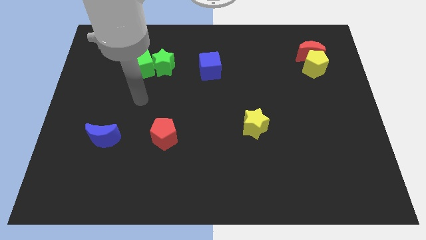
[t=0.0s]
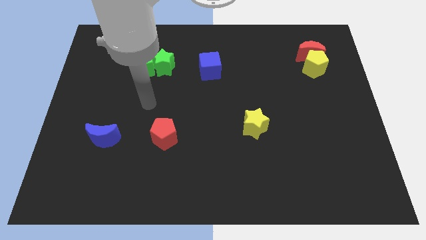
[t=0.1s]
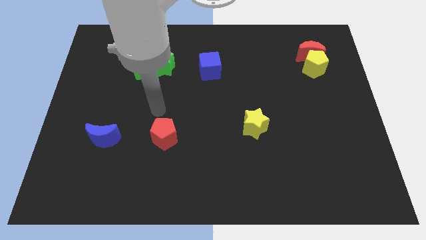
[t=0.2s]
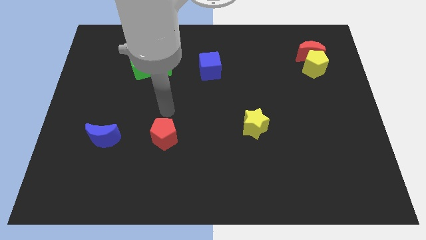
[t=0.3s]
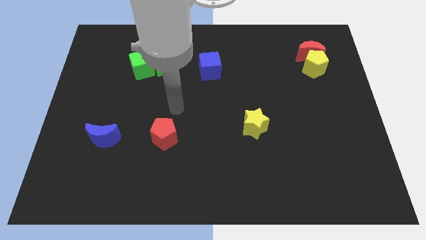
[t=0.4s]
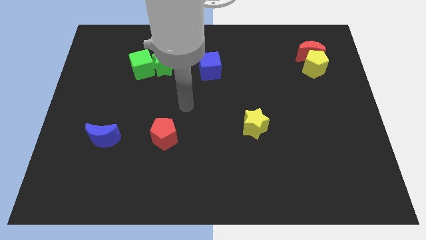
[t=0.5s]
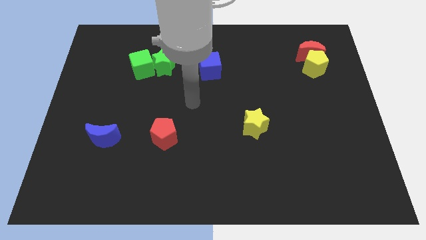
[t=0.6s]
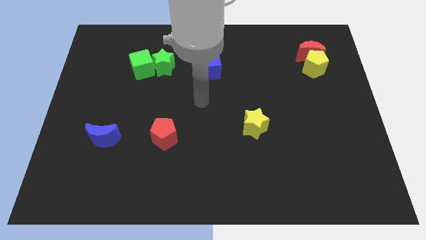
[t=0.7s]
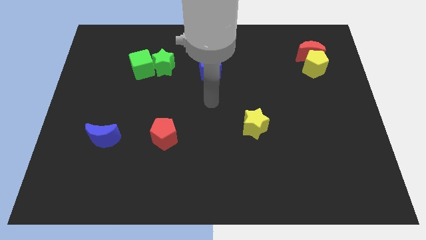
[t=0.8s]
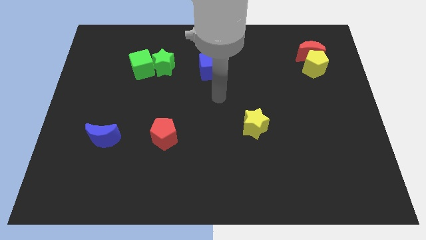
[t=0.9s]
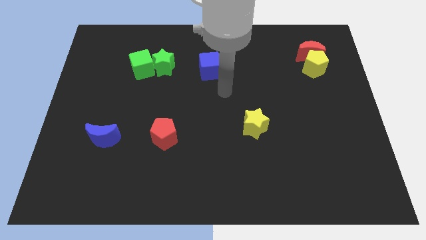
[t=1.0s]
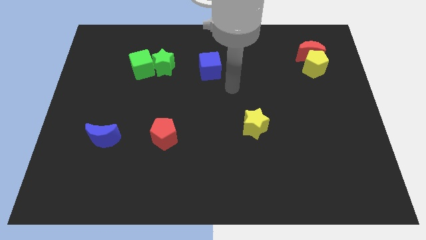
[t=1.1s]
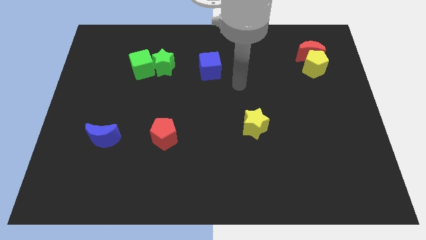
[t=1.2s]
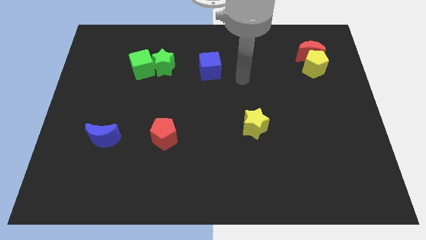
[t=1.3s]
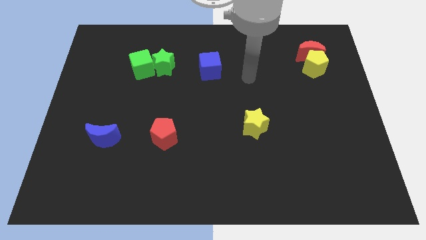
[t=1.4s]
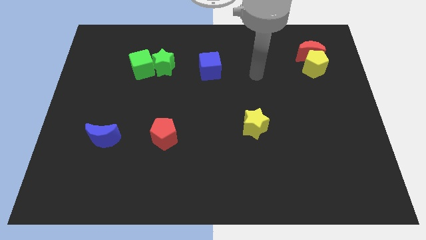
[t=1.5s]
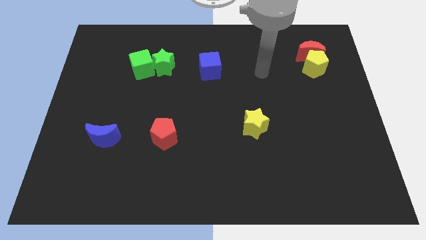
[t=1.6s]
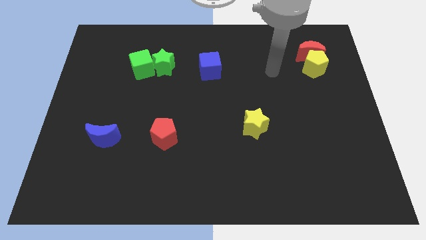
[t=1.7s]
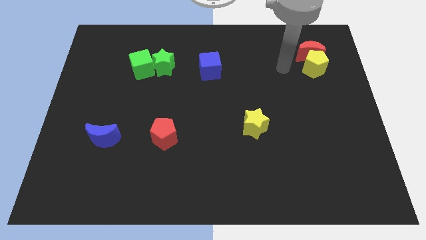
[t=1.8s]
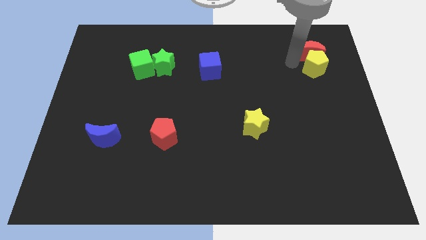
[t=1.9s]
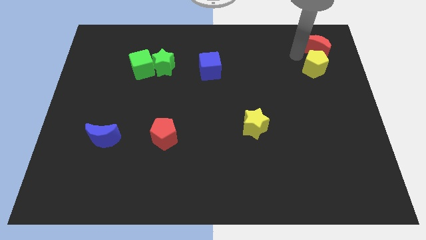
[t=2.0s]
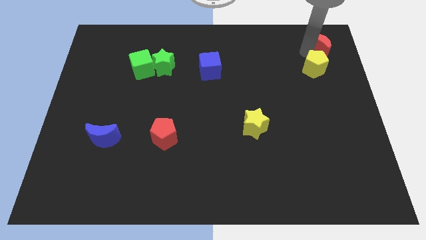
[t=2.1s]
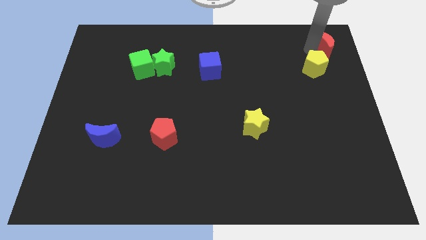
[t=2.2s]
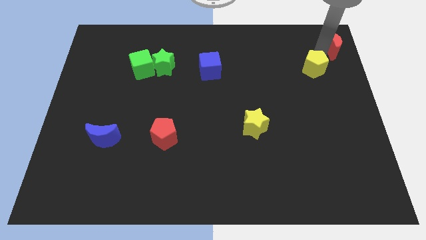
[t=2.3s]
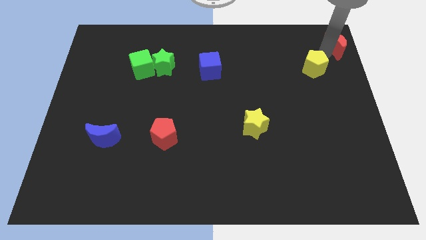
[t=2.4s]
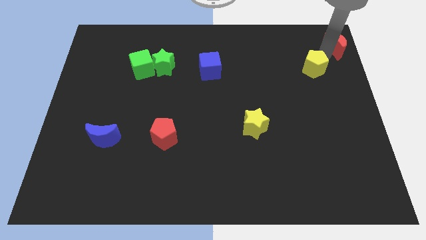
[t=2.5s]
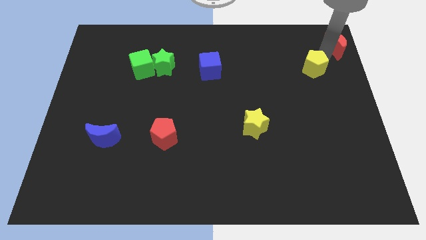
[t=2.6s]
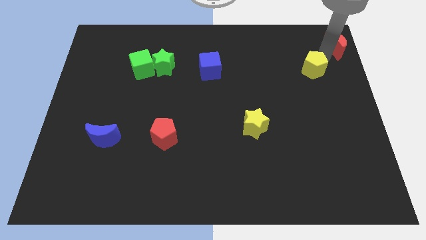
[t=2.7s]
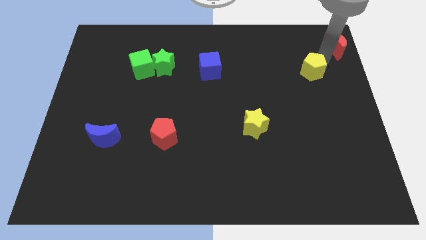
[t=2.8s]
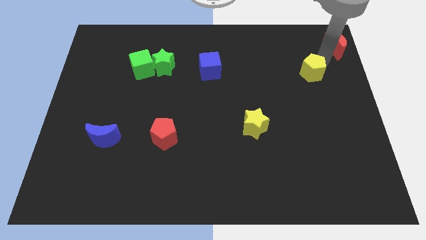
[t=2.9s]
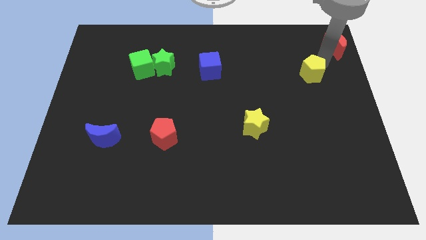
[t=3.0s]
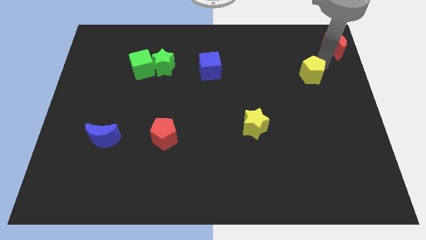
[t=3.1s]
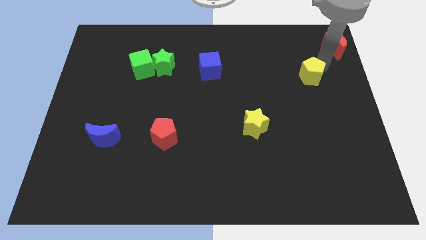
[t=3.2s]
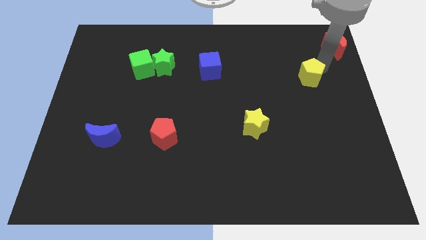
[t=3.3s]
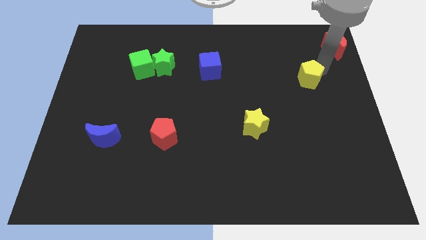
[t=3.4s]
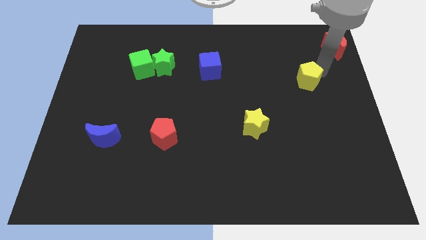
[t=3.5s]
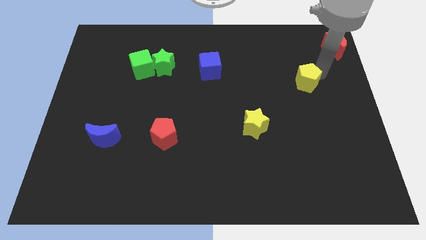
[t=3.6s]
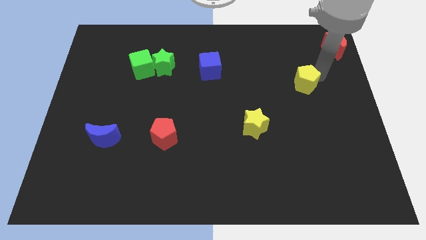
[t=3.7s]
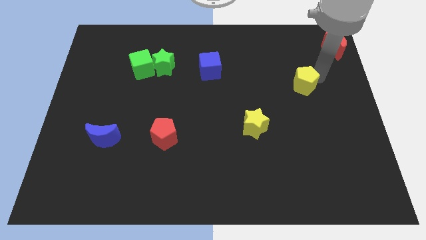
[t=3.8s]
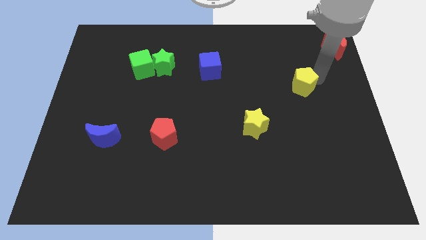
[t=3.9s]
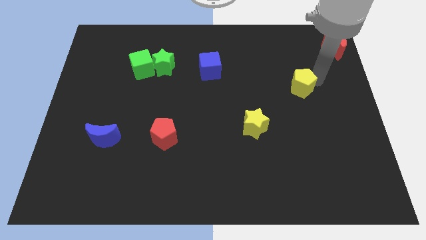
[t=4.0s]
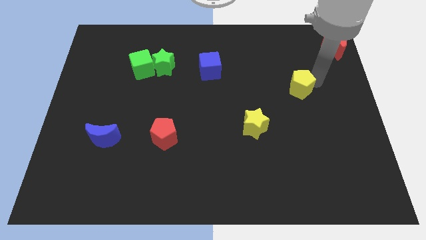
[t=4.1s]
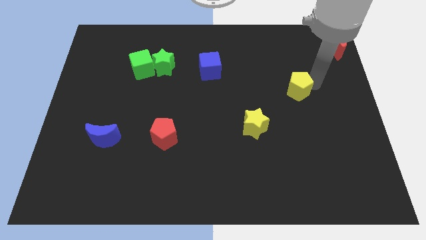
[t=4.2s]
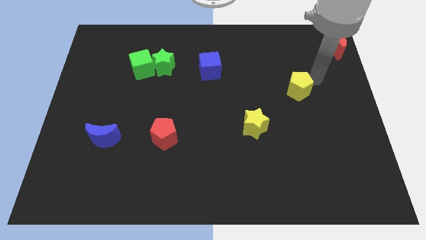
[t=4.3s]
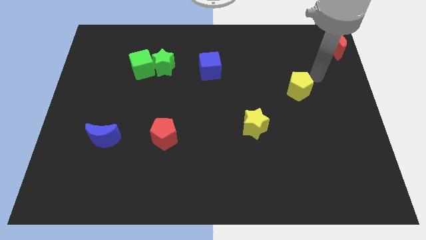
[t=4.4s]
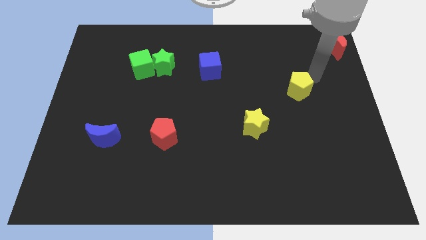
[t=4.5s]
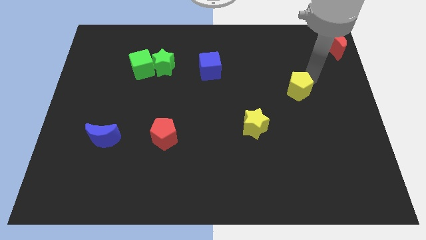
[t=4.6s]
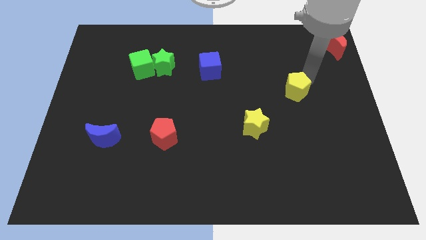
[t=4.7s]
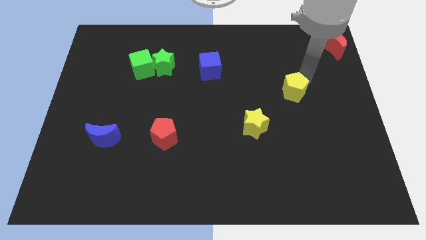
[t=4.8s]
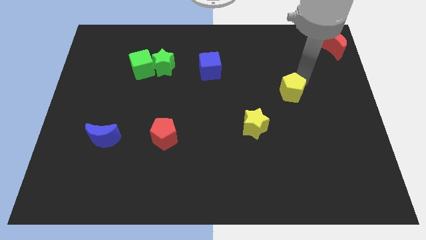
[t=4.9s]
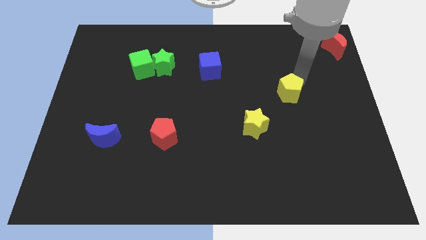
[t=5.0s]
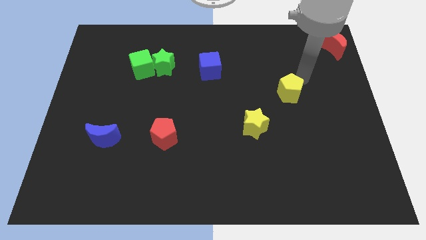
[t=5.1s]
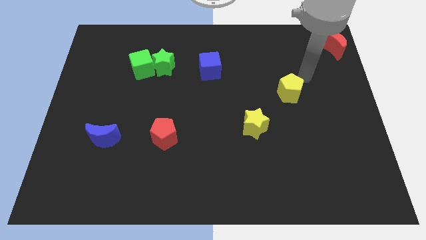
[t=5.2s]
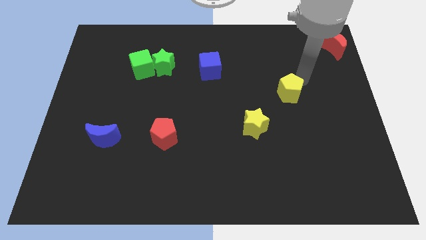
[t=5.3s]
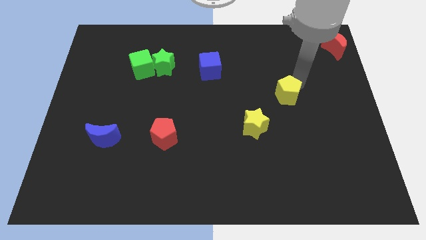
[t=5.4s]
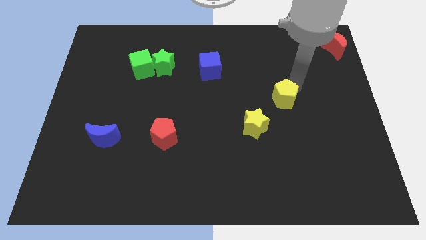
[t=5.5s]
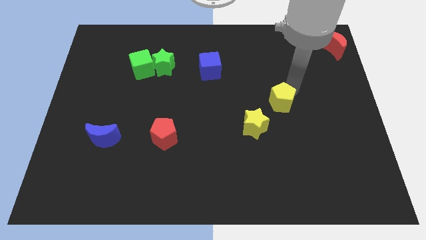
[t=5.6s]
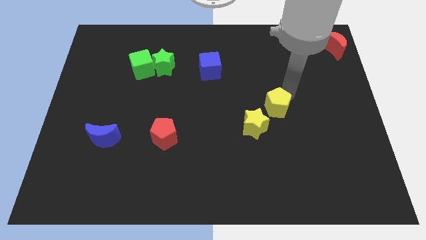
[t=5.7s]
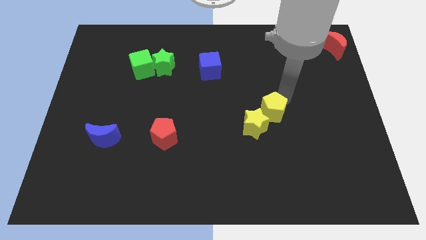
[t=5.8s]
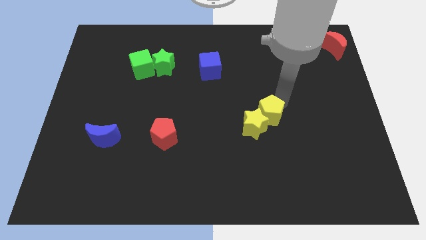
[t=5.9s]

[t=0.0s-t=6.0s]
push the yellow pentagon towards the yellow star

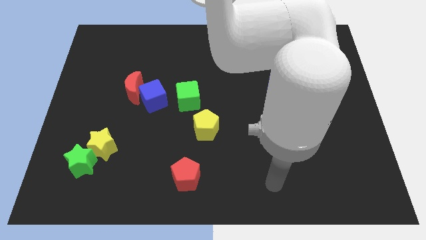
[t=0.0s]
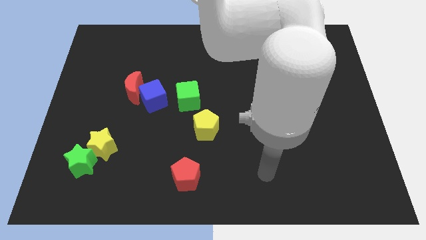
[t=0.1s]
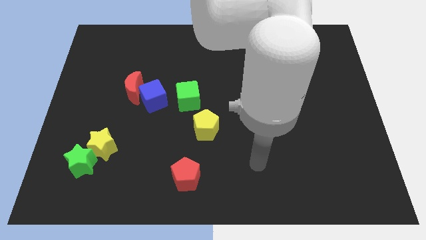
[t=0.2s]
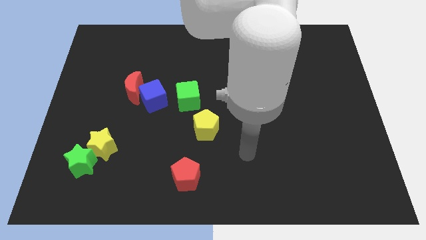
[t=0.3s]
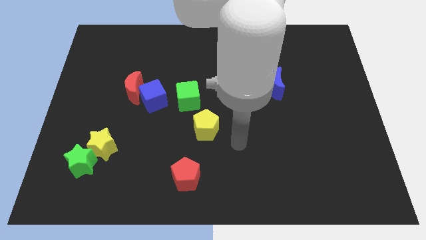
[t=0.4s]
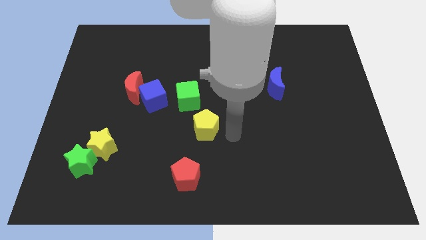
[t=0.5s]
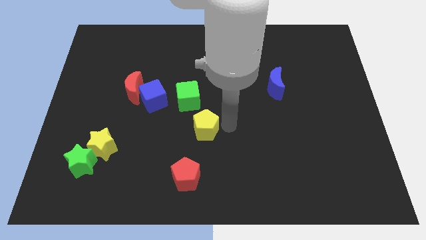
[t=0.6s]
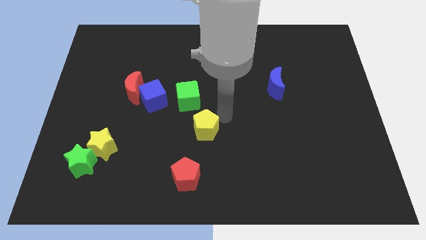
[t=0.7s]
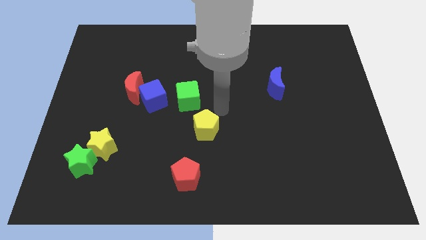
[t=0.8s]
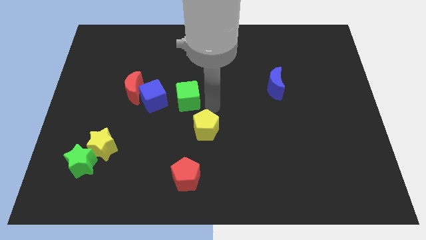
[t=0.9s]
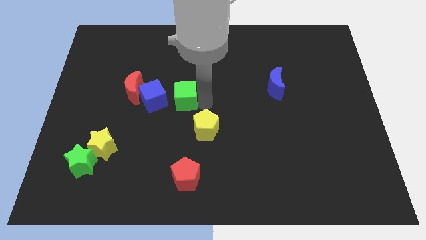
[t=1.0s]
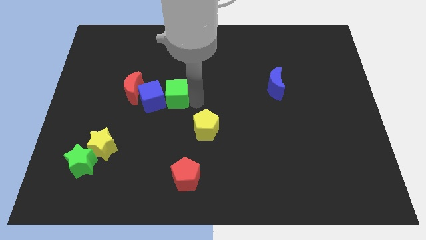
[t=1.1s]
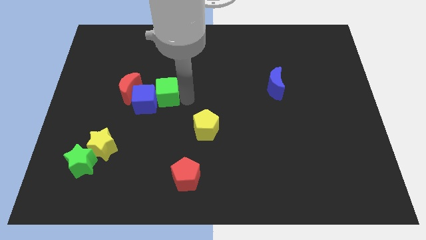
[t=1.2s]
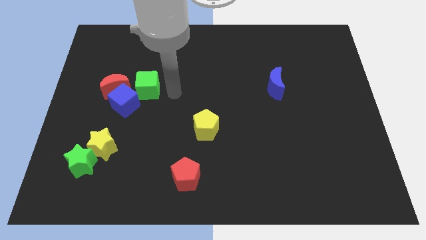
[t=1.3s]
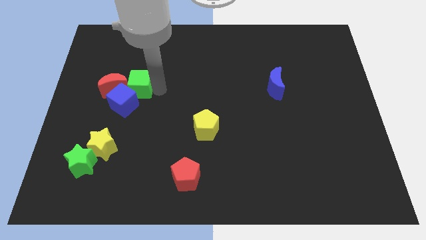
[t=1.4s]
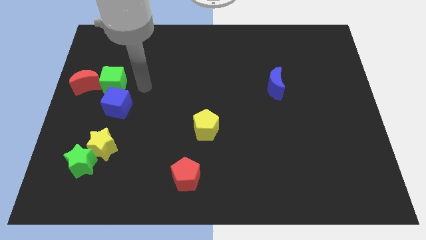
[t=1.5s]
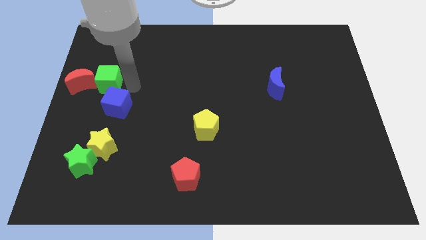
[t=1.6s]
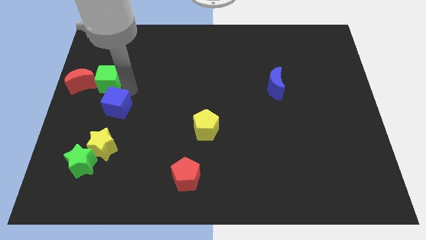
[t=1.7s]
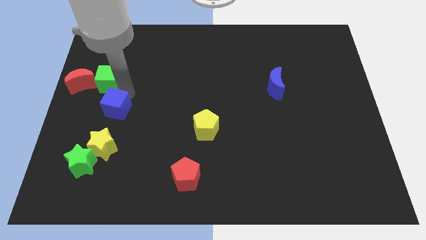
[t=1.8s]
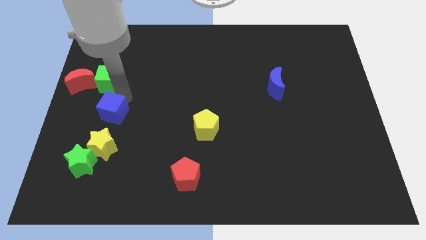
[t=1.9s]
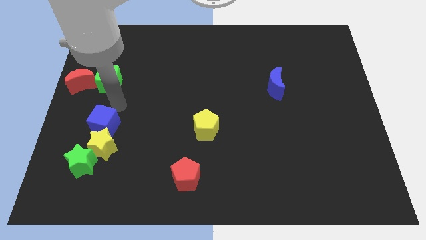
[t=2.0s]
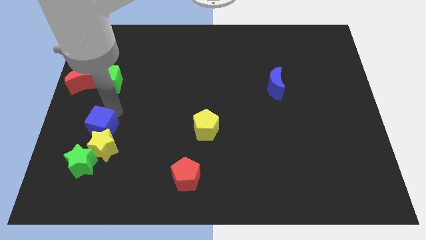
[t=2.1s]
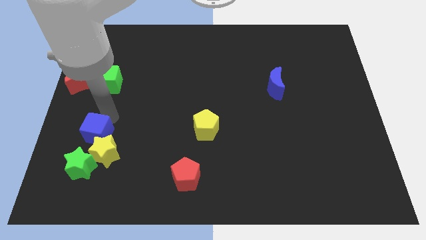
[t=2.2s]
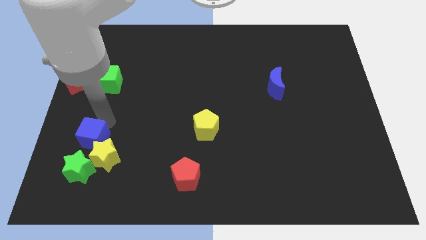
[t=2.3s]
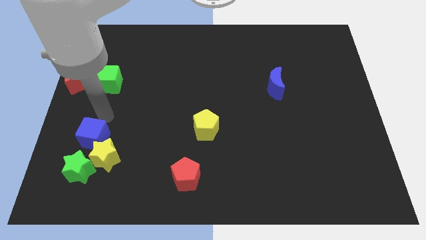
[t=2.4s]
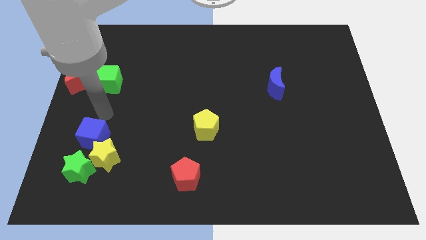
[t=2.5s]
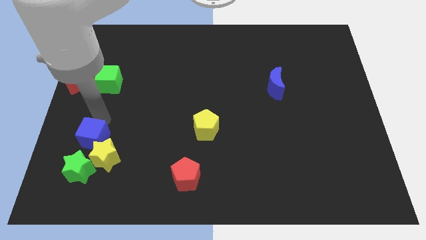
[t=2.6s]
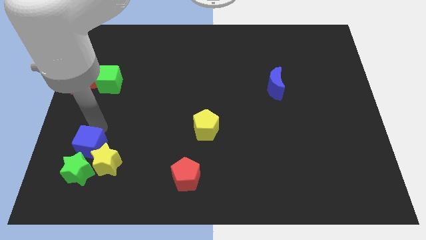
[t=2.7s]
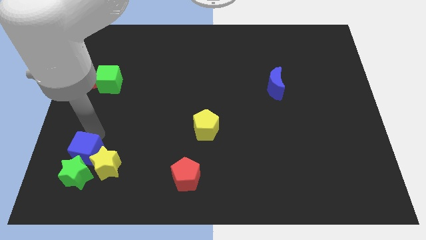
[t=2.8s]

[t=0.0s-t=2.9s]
push the blue cube towards the green star
